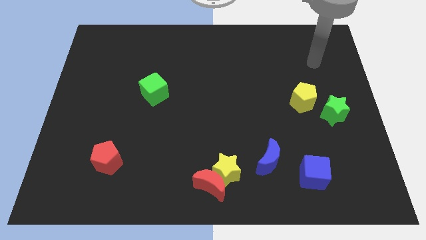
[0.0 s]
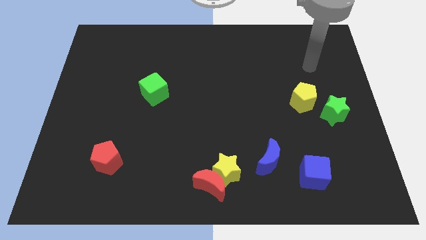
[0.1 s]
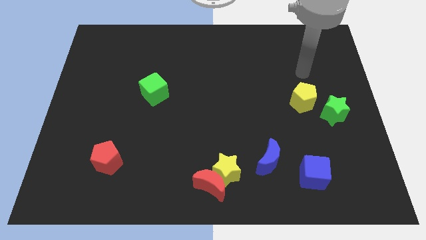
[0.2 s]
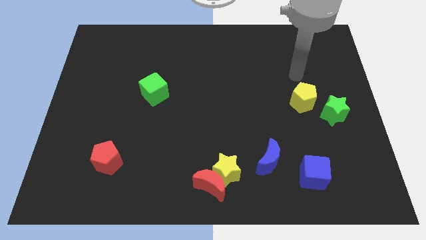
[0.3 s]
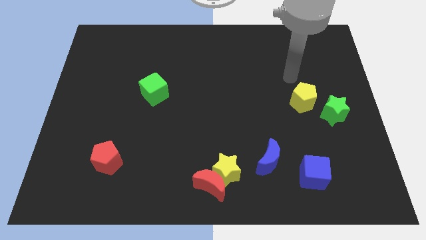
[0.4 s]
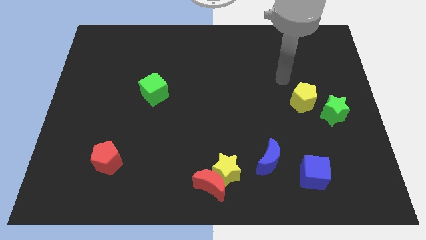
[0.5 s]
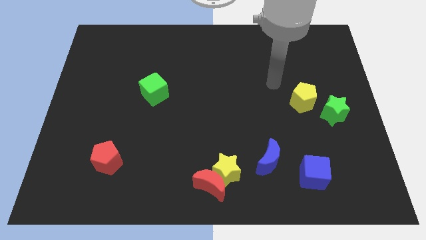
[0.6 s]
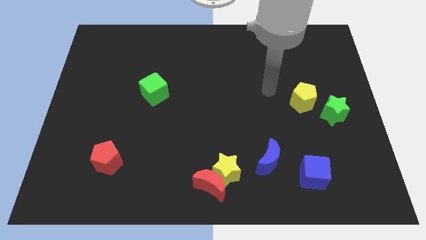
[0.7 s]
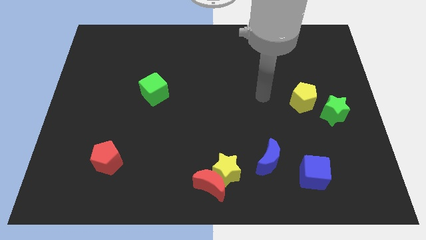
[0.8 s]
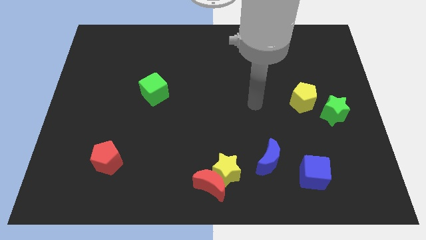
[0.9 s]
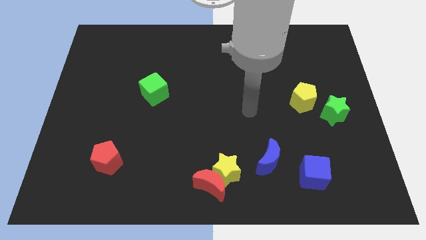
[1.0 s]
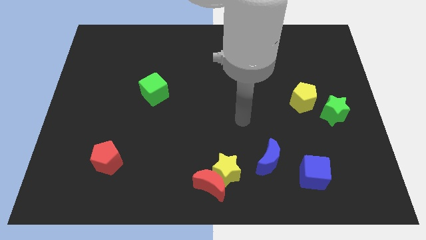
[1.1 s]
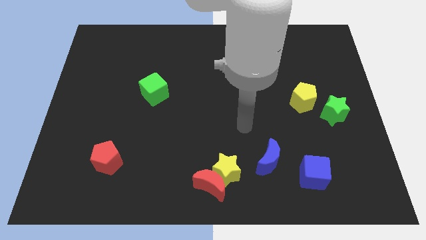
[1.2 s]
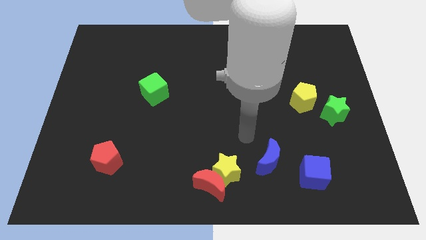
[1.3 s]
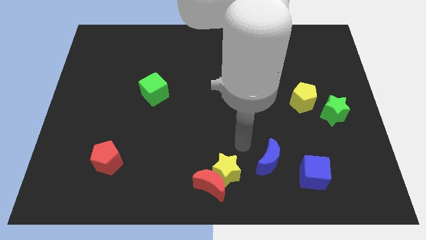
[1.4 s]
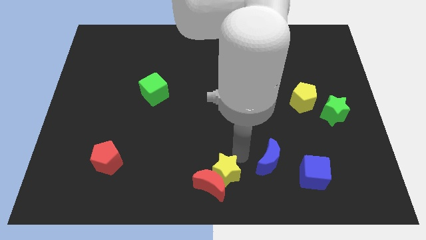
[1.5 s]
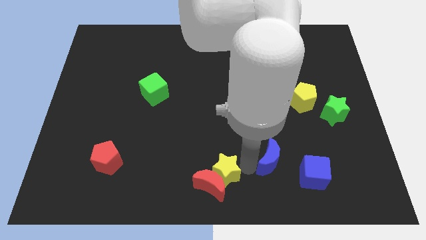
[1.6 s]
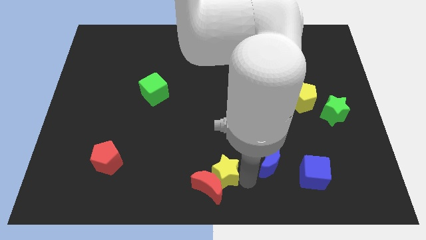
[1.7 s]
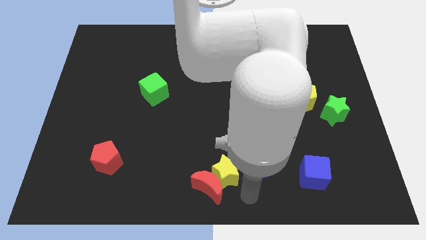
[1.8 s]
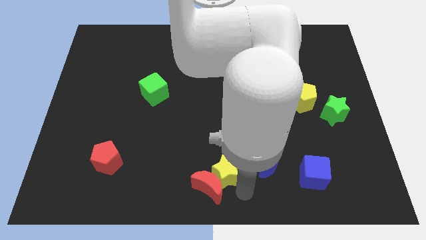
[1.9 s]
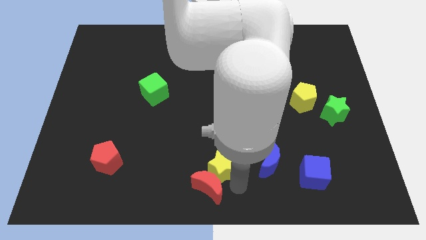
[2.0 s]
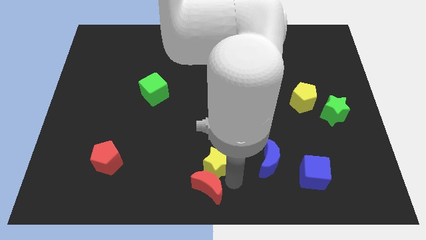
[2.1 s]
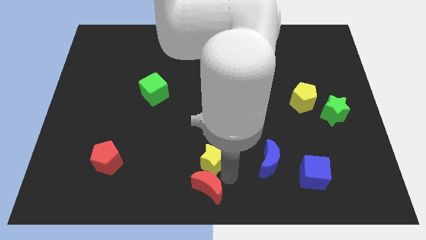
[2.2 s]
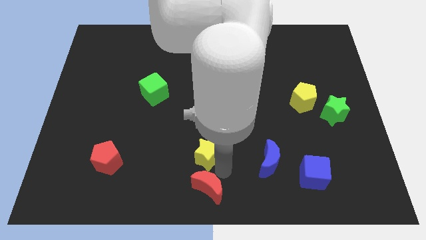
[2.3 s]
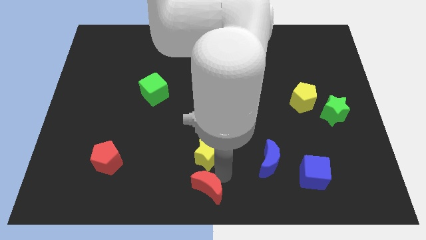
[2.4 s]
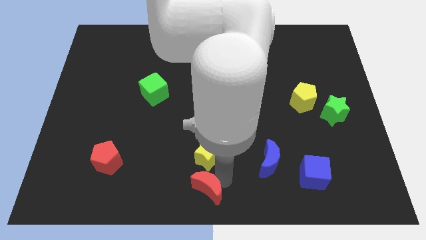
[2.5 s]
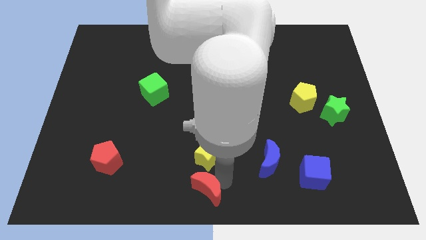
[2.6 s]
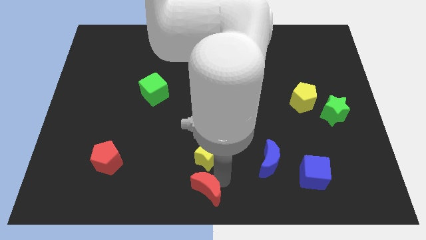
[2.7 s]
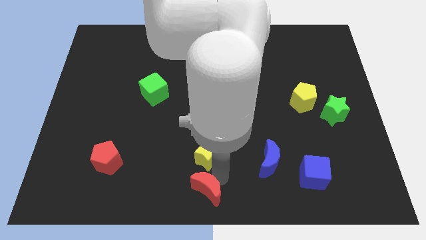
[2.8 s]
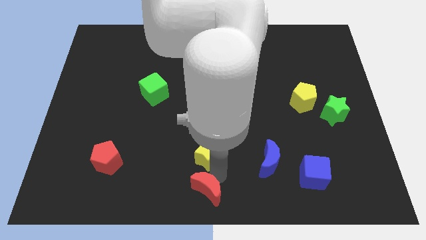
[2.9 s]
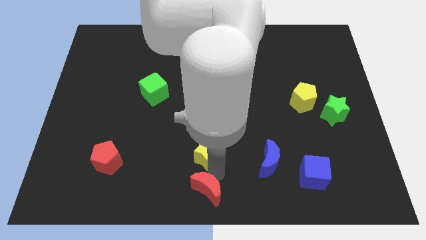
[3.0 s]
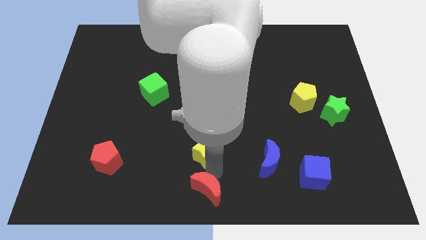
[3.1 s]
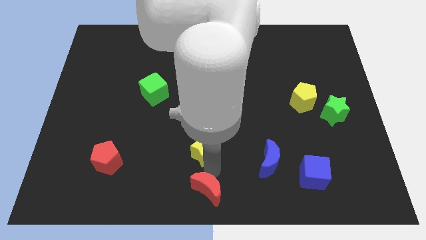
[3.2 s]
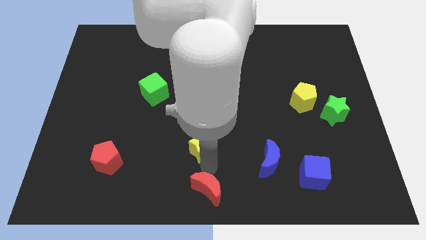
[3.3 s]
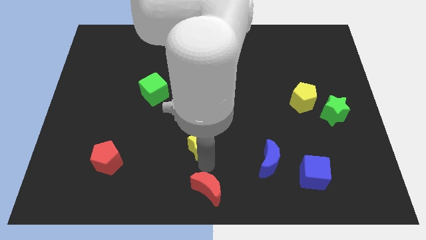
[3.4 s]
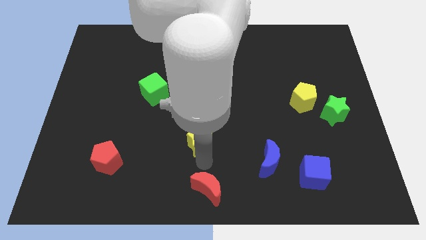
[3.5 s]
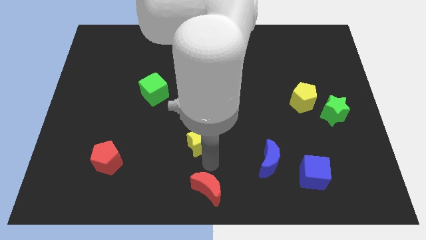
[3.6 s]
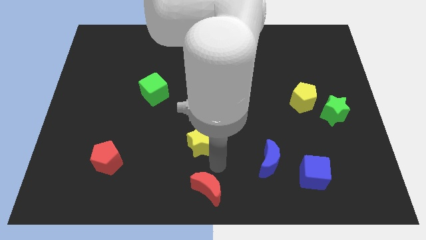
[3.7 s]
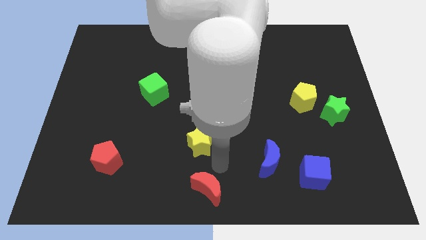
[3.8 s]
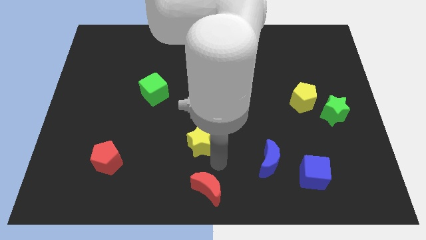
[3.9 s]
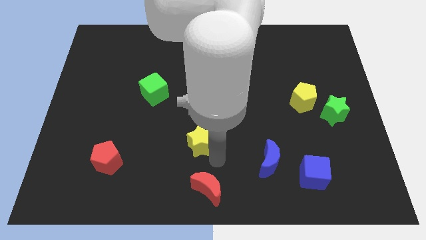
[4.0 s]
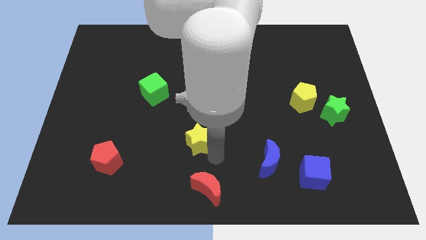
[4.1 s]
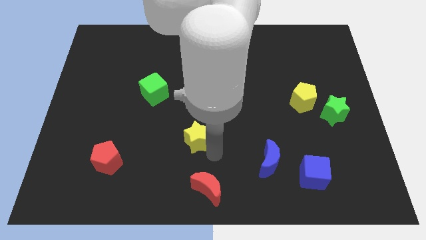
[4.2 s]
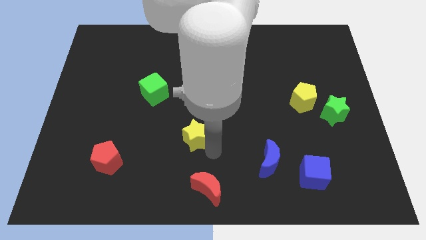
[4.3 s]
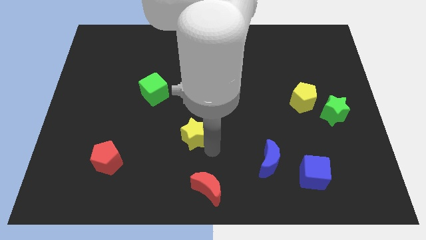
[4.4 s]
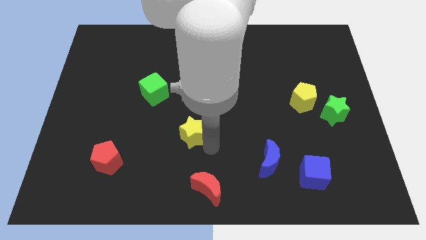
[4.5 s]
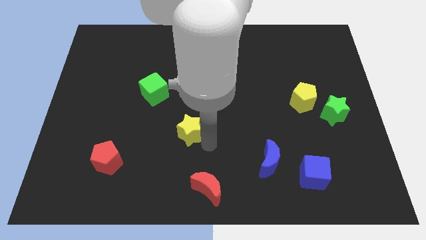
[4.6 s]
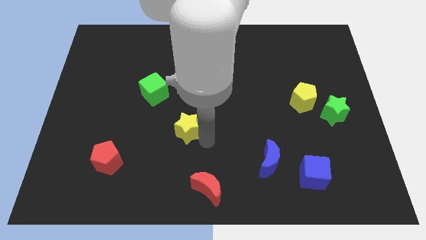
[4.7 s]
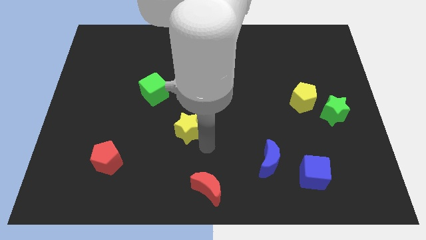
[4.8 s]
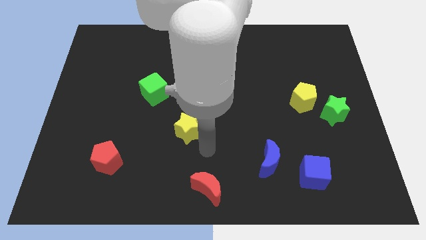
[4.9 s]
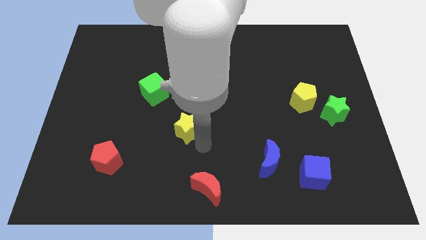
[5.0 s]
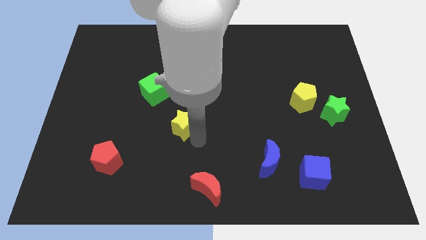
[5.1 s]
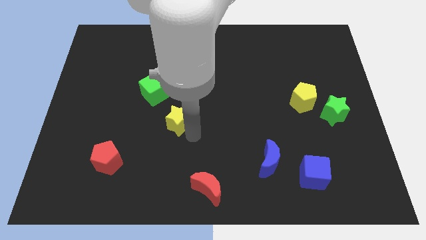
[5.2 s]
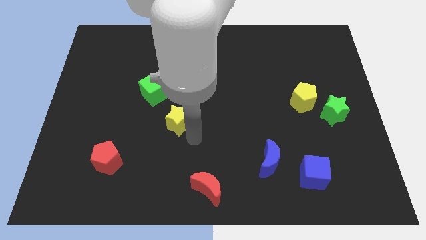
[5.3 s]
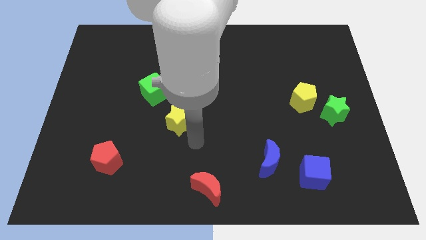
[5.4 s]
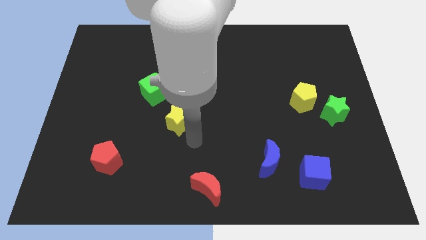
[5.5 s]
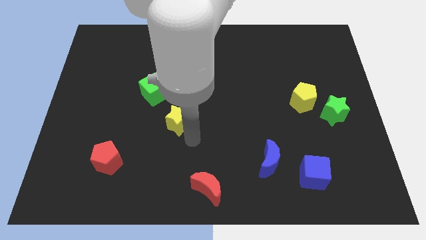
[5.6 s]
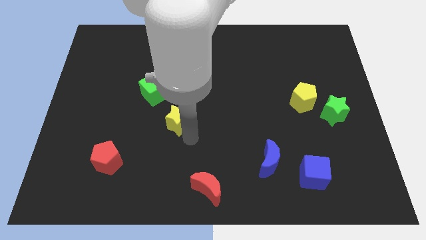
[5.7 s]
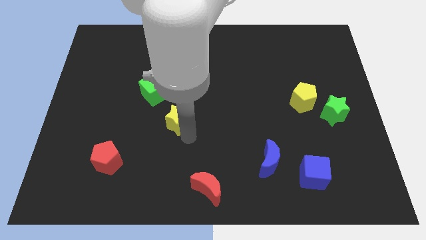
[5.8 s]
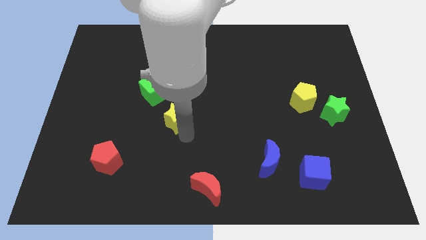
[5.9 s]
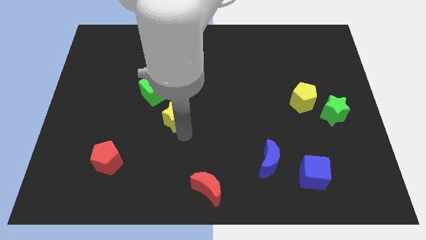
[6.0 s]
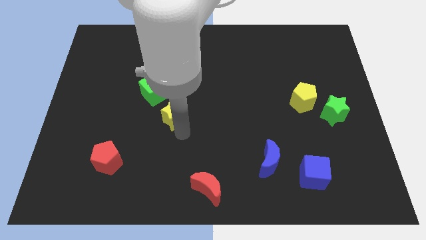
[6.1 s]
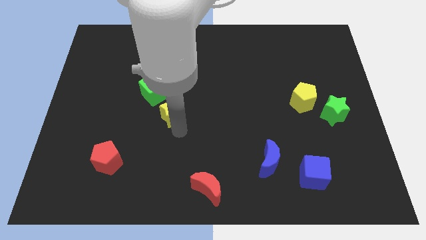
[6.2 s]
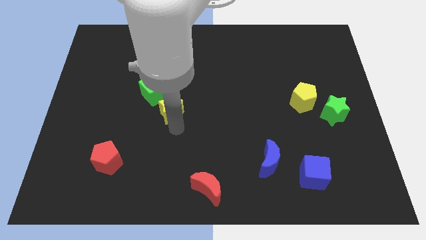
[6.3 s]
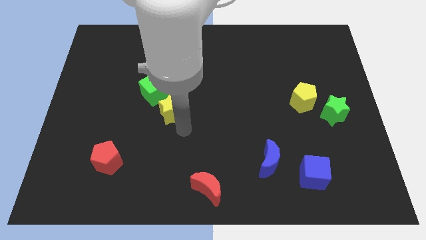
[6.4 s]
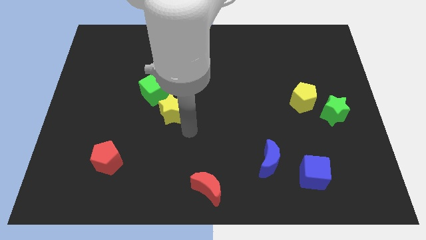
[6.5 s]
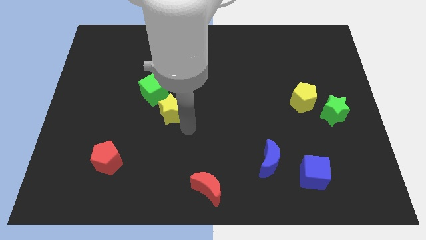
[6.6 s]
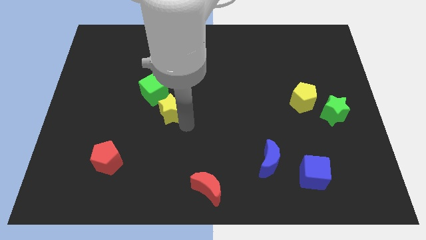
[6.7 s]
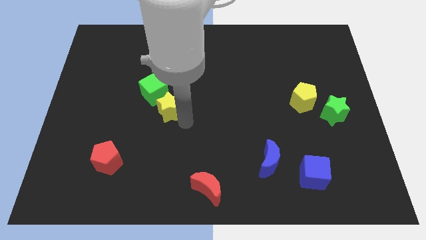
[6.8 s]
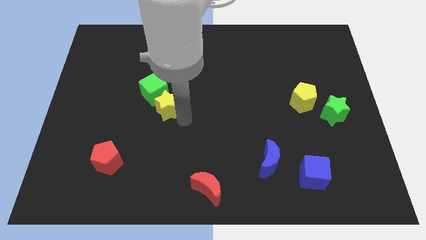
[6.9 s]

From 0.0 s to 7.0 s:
put the yellow star next to the green cube

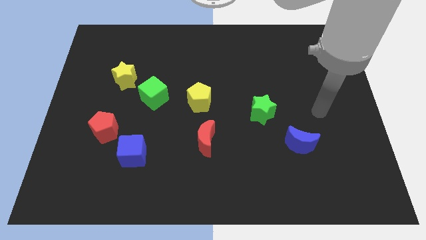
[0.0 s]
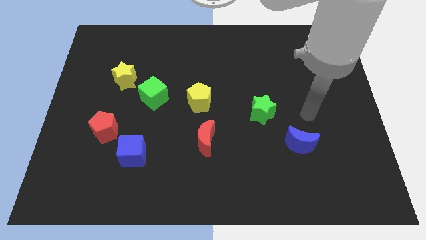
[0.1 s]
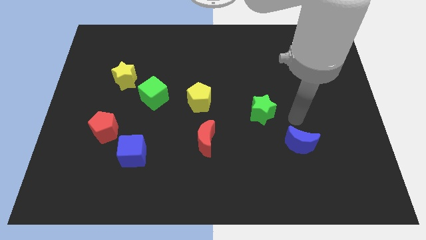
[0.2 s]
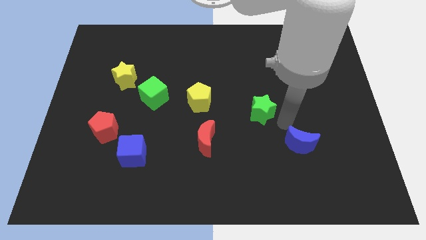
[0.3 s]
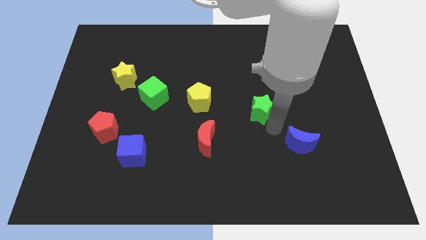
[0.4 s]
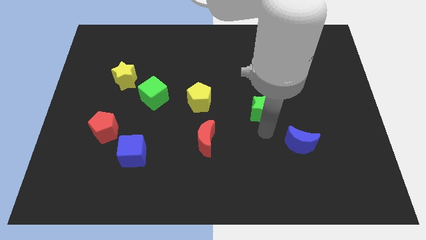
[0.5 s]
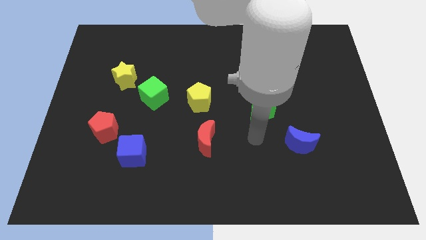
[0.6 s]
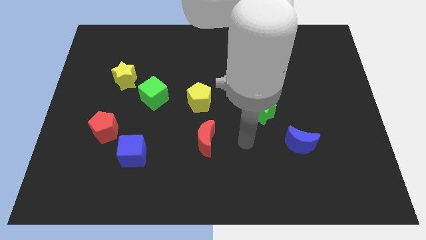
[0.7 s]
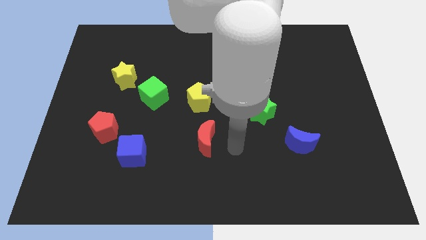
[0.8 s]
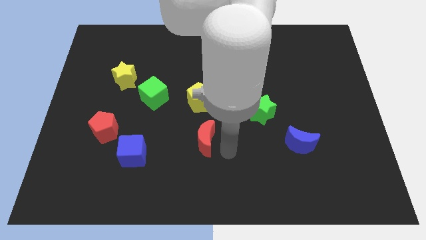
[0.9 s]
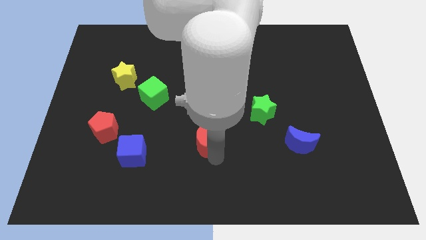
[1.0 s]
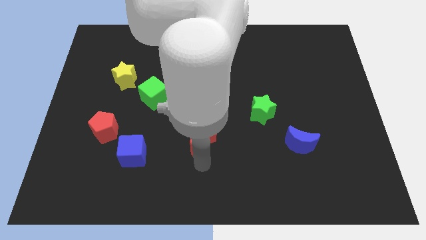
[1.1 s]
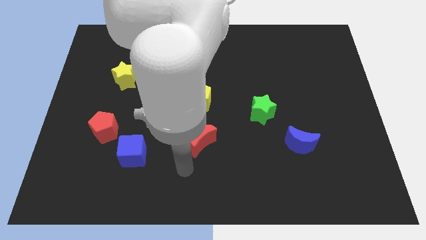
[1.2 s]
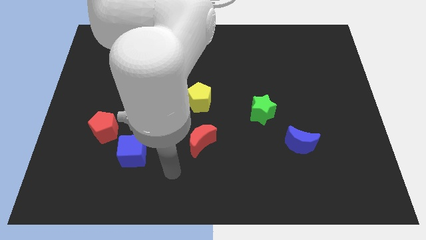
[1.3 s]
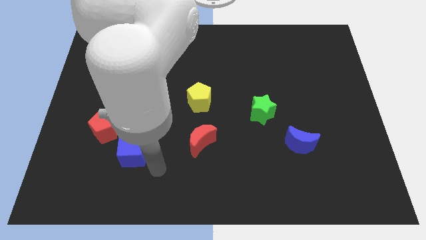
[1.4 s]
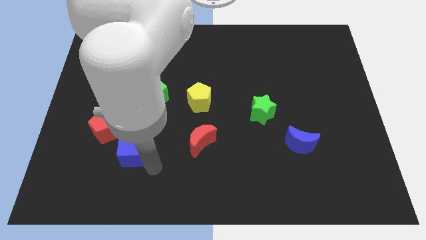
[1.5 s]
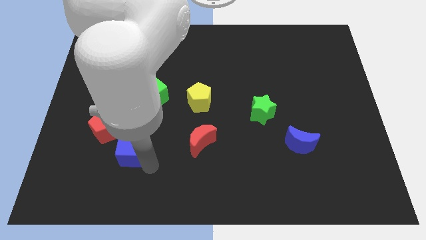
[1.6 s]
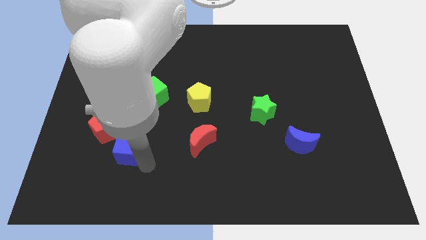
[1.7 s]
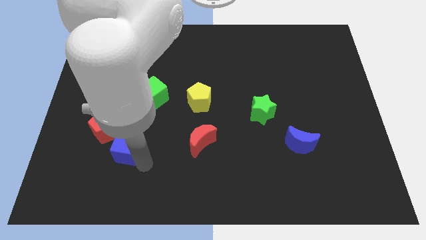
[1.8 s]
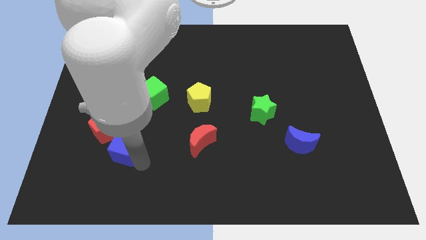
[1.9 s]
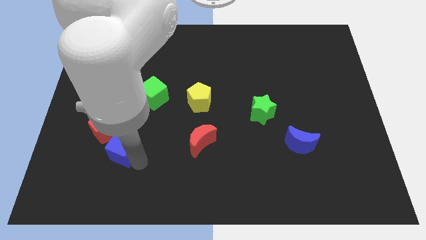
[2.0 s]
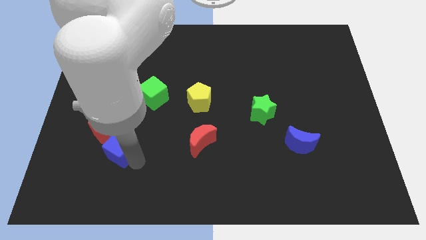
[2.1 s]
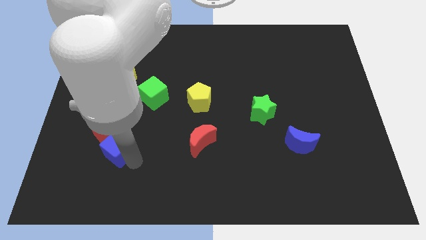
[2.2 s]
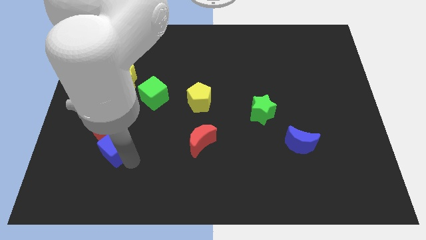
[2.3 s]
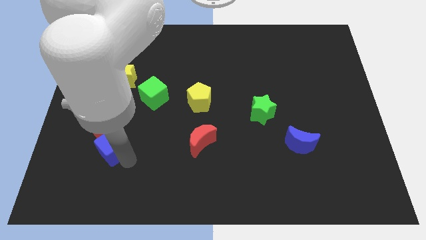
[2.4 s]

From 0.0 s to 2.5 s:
put the blue cube towards the red pentagon
